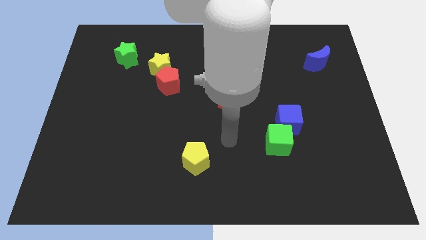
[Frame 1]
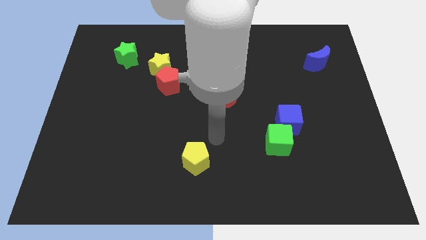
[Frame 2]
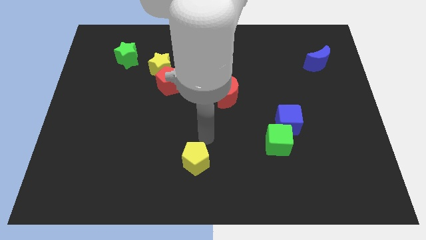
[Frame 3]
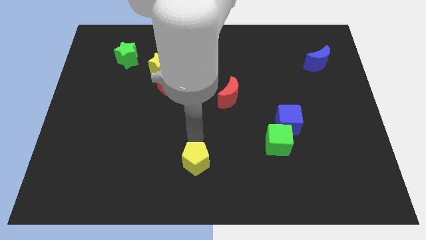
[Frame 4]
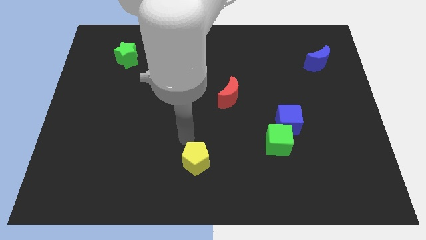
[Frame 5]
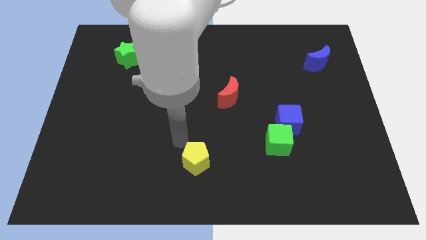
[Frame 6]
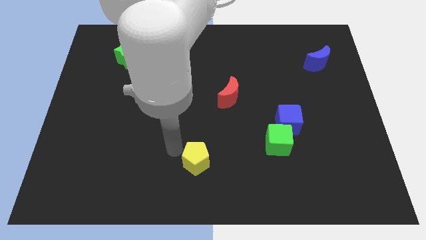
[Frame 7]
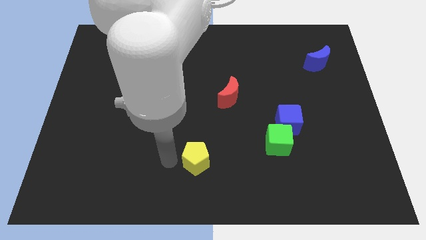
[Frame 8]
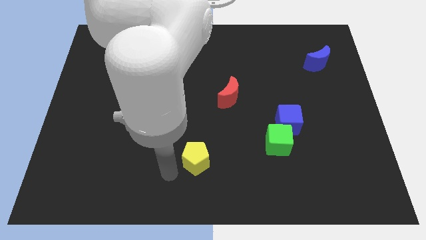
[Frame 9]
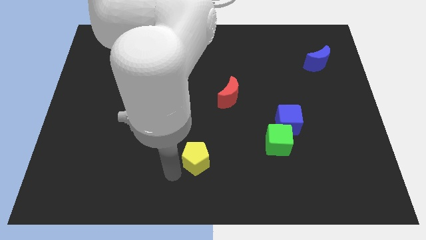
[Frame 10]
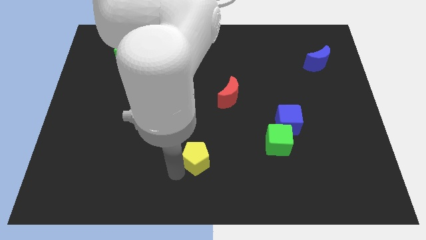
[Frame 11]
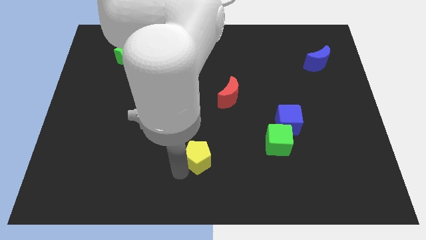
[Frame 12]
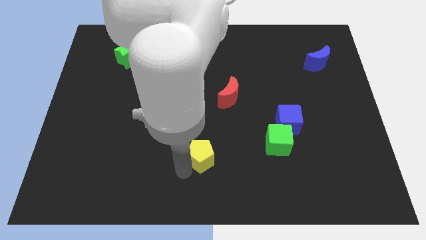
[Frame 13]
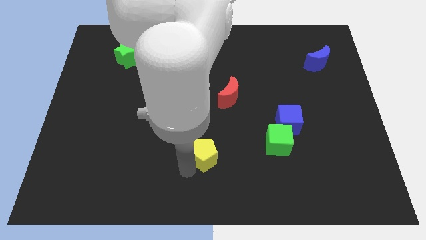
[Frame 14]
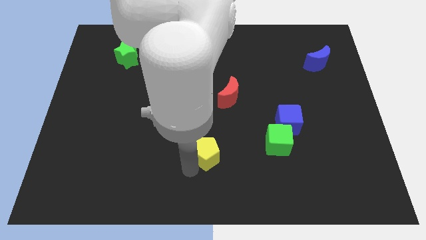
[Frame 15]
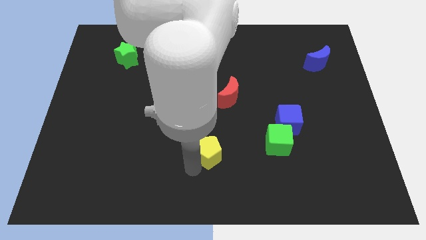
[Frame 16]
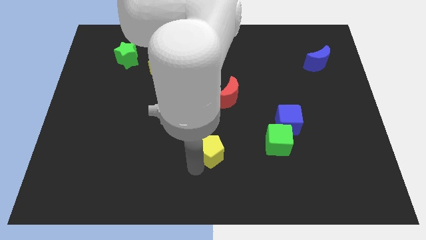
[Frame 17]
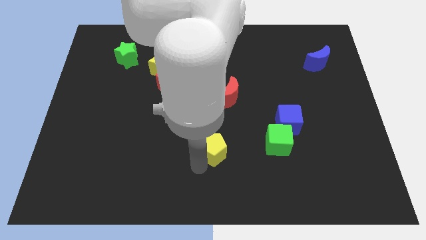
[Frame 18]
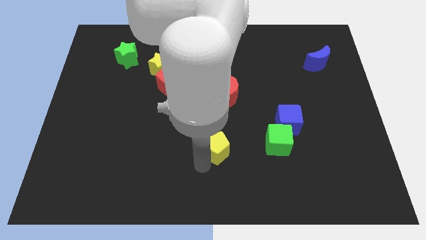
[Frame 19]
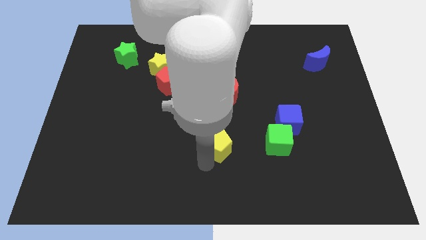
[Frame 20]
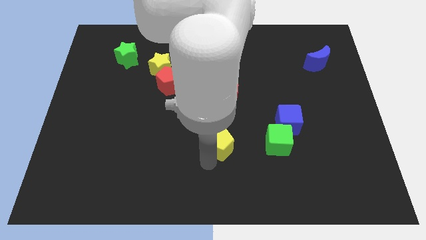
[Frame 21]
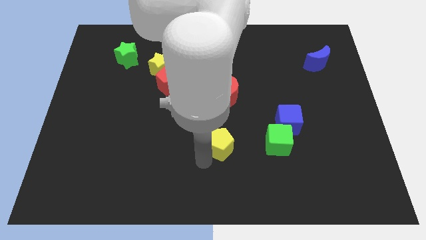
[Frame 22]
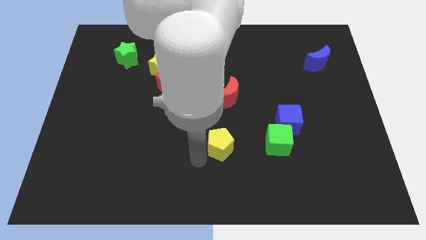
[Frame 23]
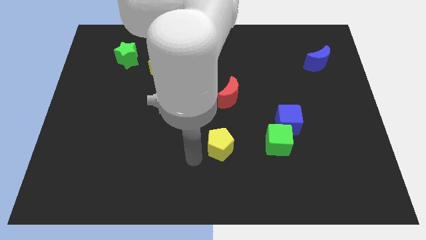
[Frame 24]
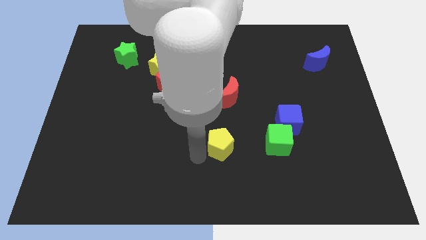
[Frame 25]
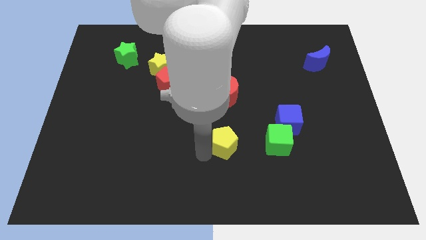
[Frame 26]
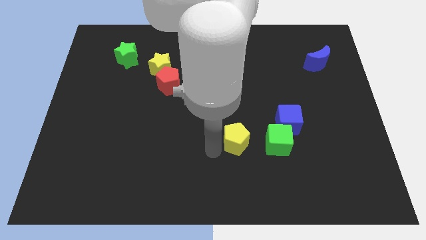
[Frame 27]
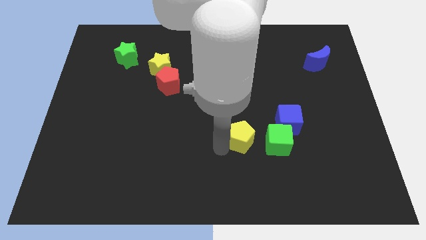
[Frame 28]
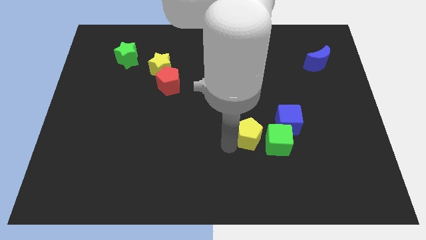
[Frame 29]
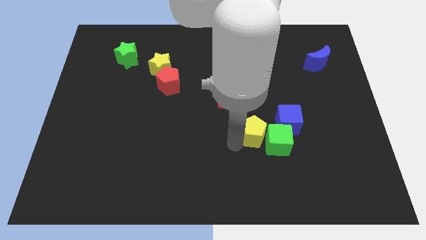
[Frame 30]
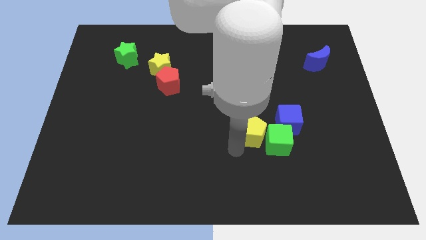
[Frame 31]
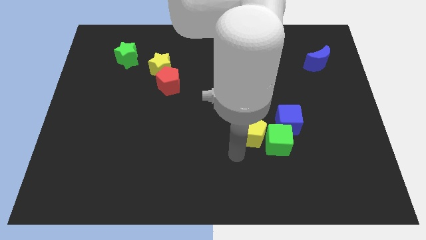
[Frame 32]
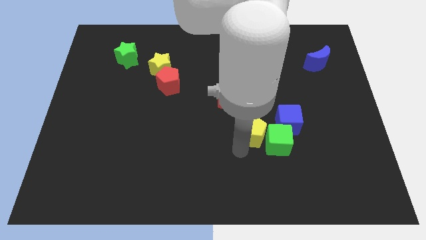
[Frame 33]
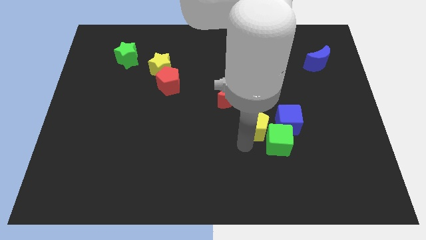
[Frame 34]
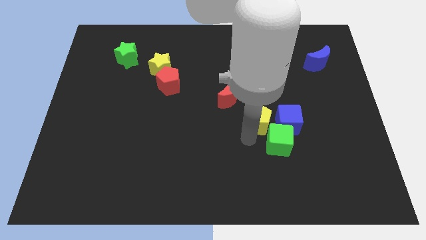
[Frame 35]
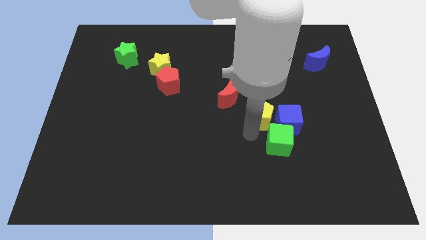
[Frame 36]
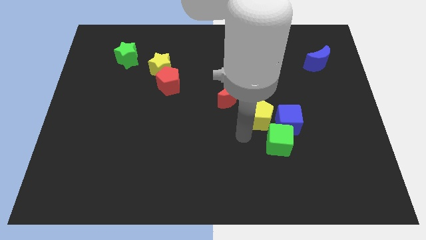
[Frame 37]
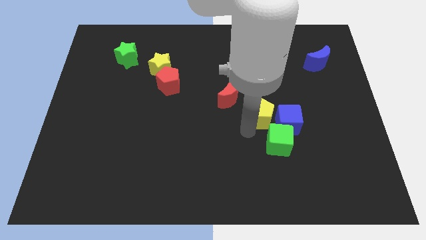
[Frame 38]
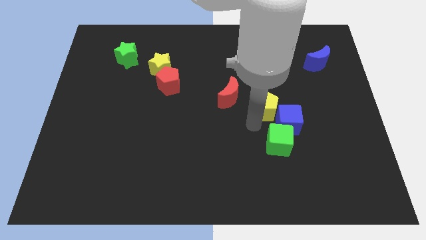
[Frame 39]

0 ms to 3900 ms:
slide the yellow pentagon upwards and then right

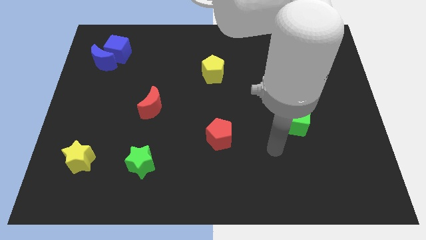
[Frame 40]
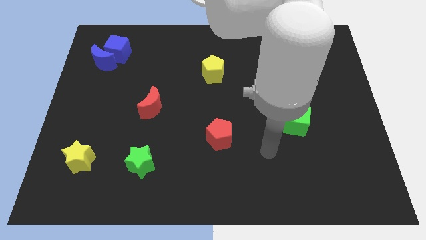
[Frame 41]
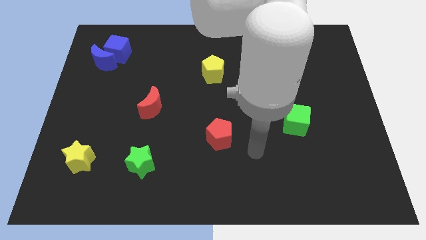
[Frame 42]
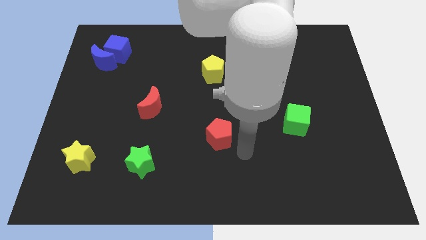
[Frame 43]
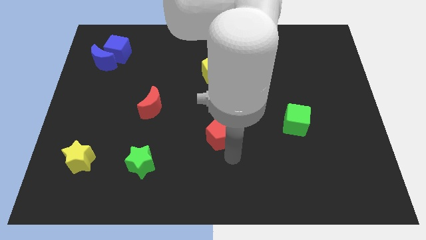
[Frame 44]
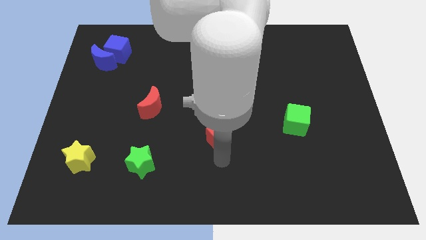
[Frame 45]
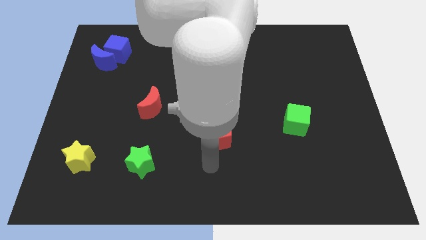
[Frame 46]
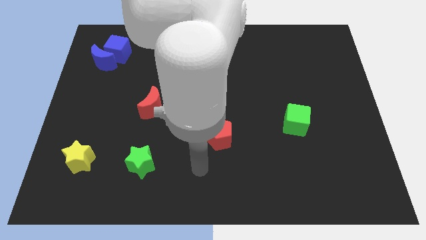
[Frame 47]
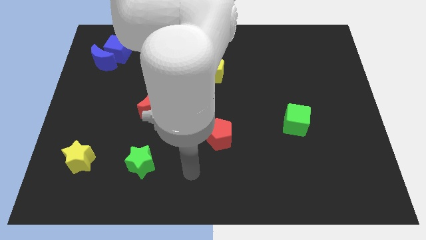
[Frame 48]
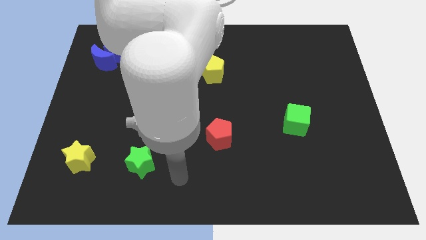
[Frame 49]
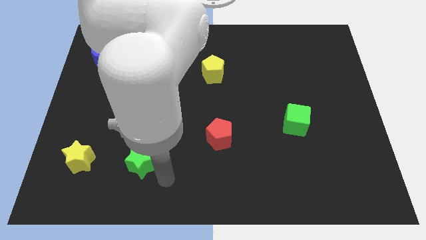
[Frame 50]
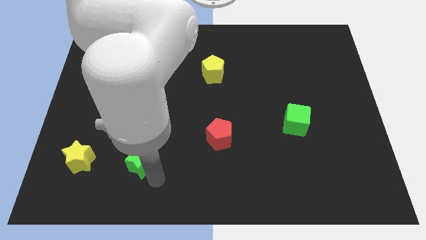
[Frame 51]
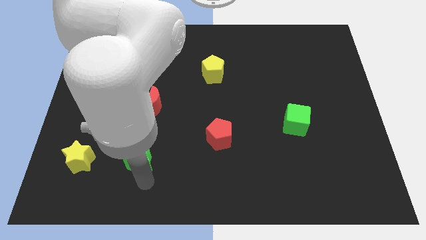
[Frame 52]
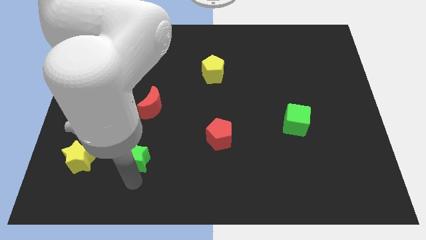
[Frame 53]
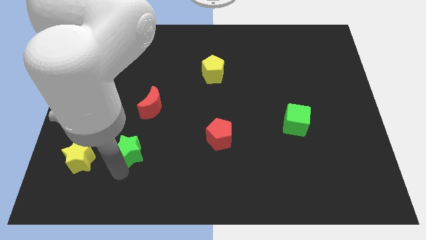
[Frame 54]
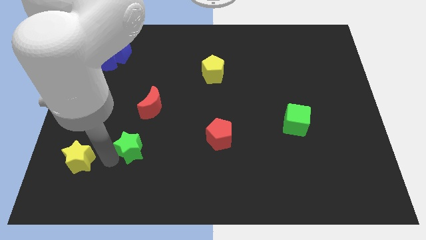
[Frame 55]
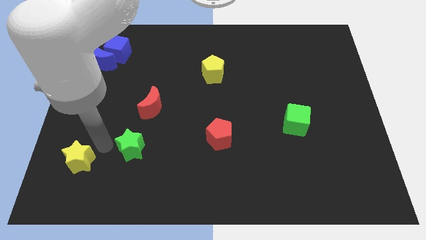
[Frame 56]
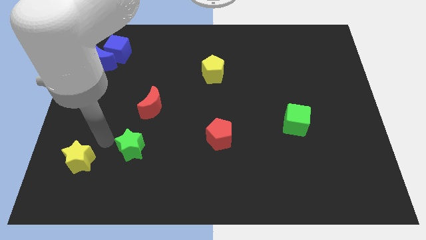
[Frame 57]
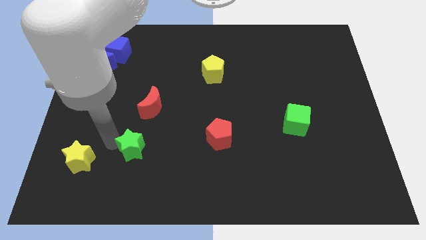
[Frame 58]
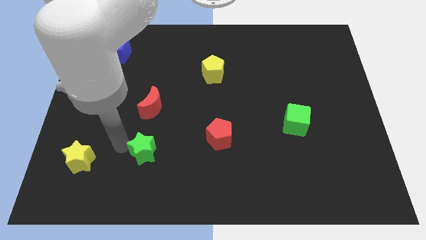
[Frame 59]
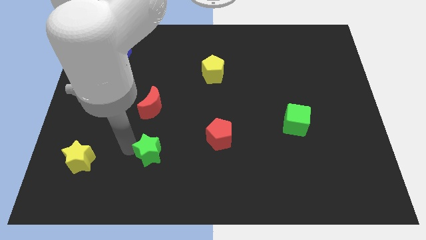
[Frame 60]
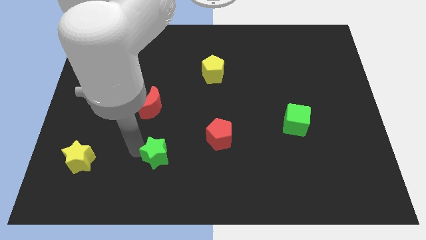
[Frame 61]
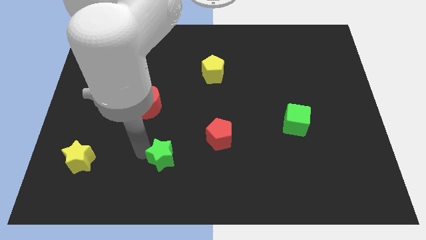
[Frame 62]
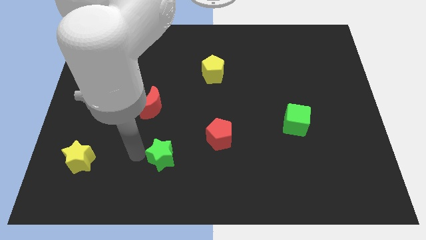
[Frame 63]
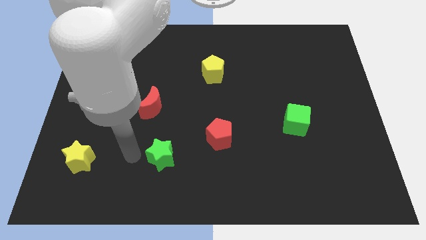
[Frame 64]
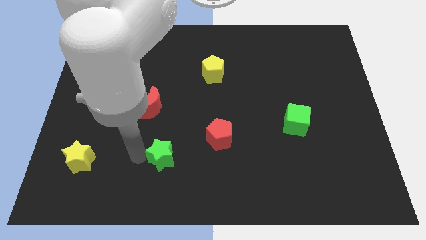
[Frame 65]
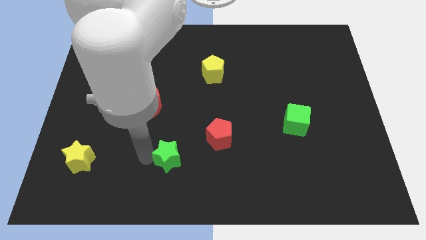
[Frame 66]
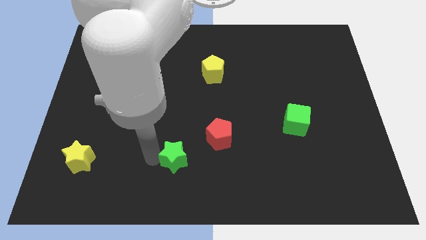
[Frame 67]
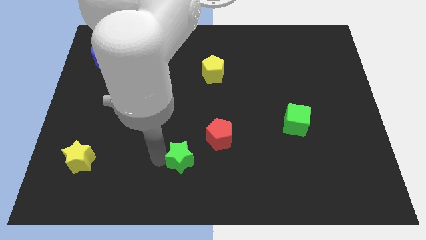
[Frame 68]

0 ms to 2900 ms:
slightly move the green star to the right

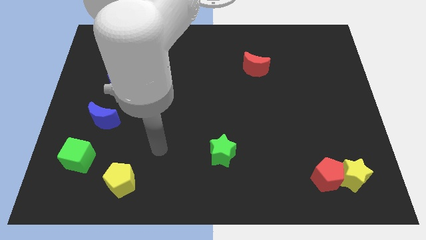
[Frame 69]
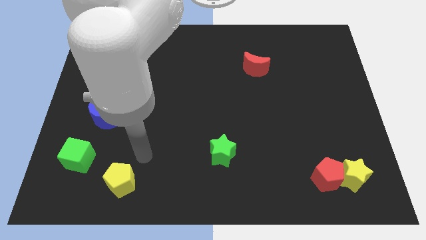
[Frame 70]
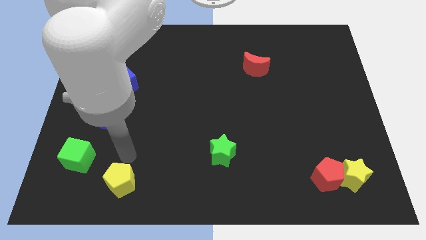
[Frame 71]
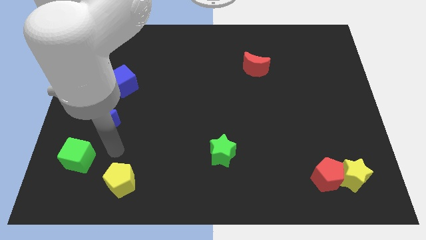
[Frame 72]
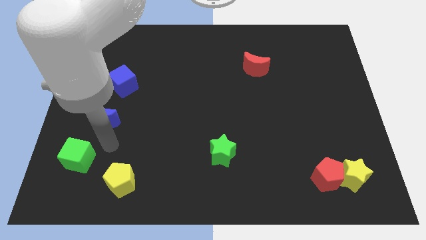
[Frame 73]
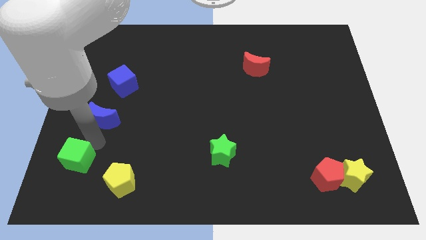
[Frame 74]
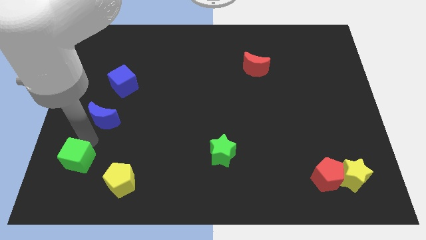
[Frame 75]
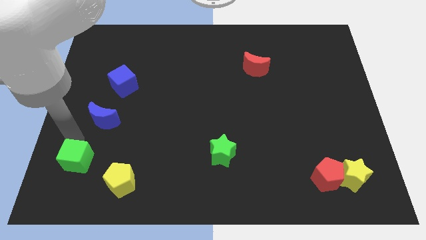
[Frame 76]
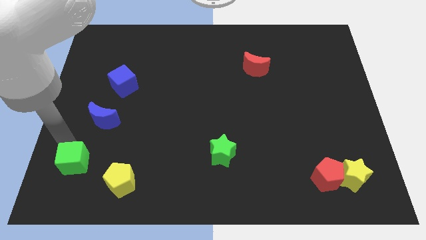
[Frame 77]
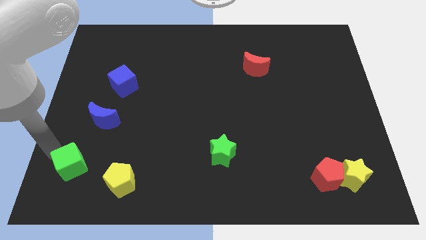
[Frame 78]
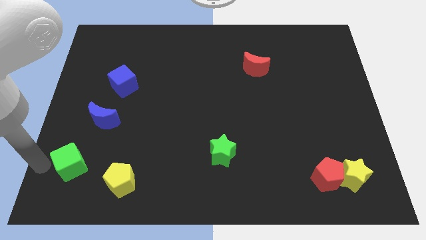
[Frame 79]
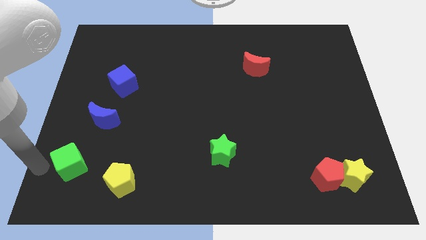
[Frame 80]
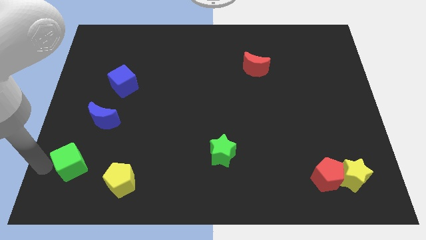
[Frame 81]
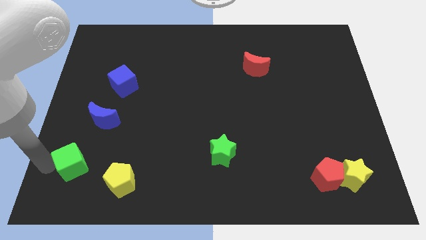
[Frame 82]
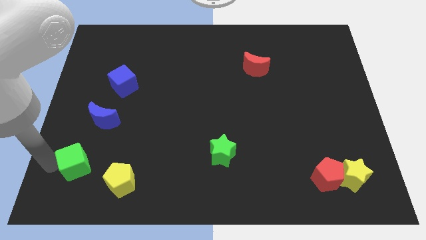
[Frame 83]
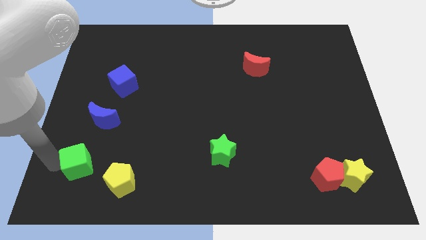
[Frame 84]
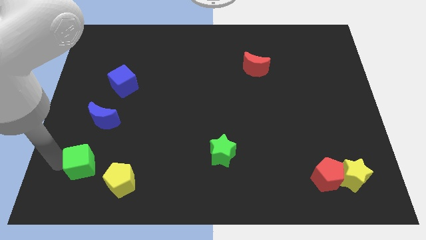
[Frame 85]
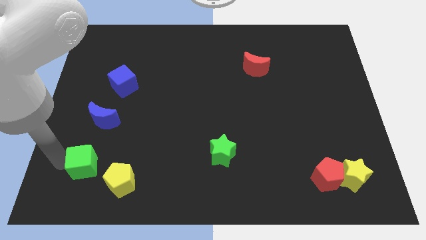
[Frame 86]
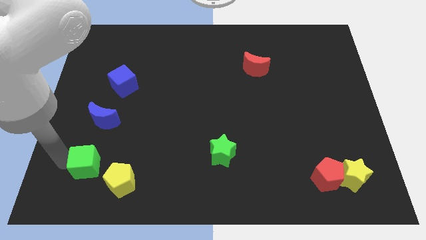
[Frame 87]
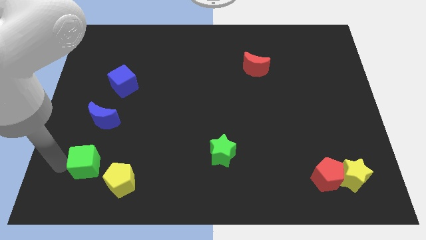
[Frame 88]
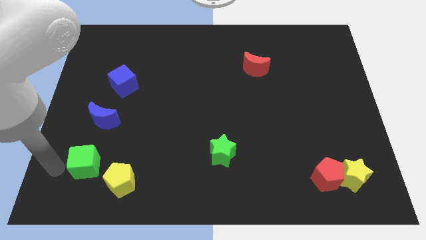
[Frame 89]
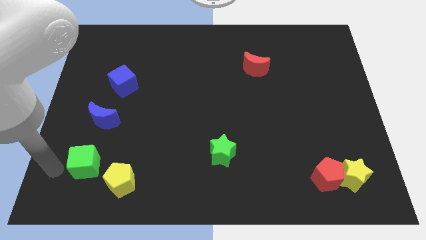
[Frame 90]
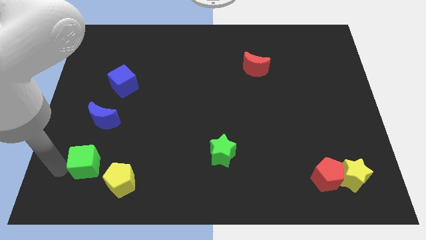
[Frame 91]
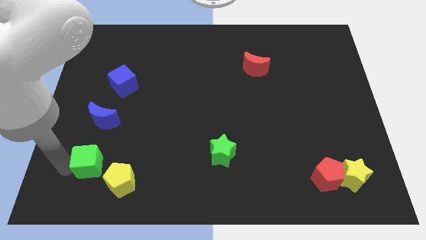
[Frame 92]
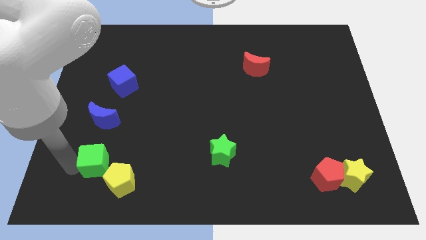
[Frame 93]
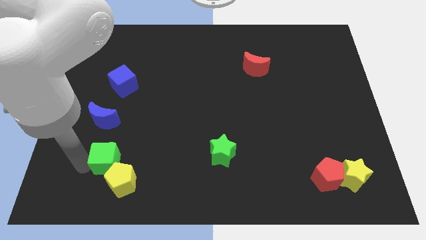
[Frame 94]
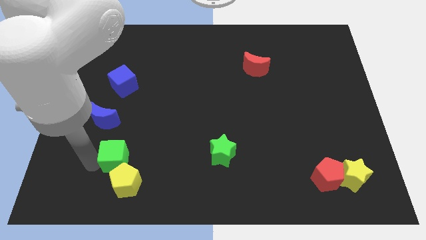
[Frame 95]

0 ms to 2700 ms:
slightly push the green cube to the right
